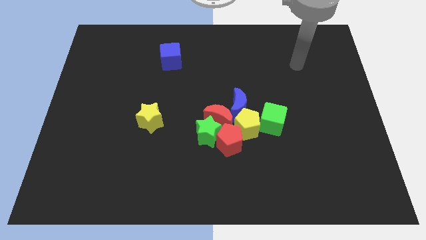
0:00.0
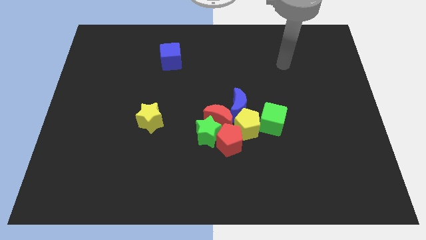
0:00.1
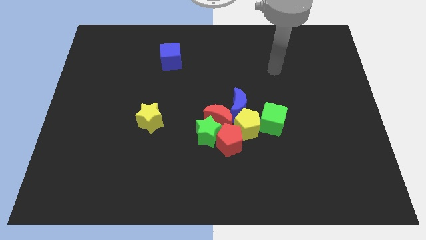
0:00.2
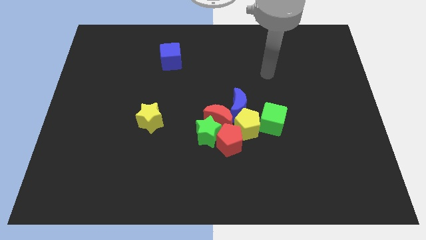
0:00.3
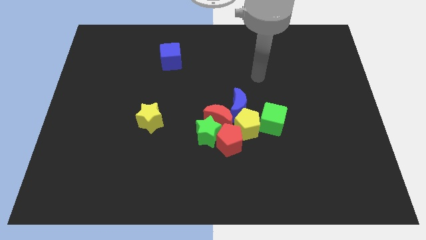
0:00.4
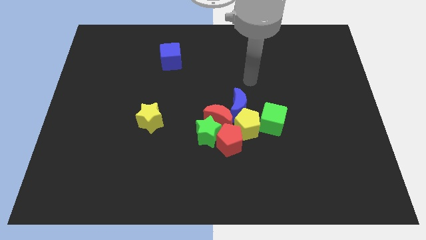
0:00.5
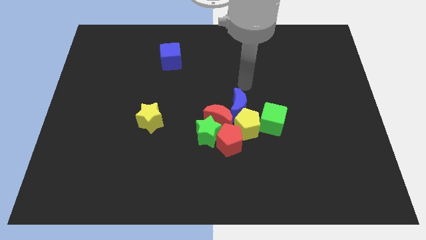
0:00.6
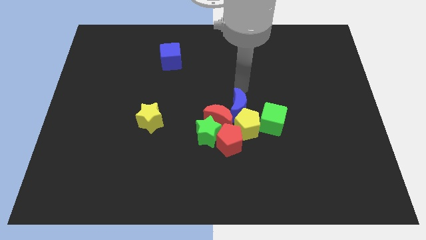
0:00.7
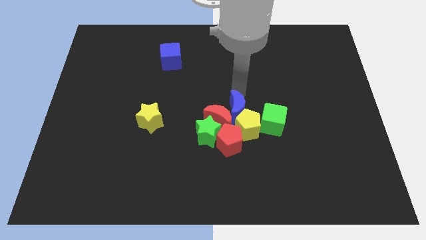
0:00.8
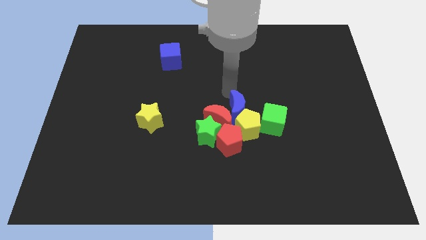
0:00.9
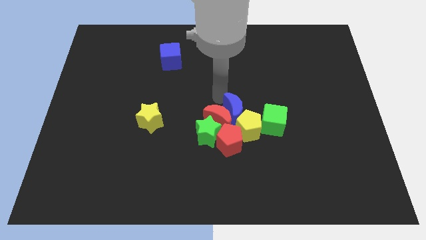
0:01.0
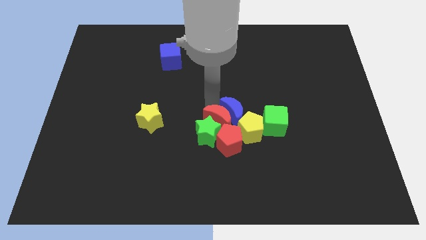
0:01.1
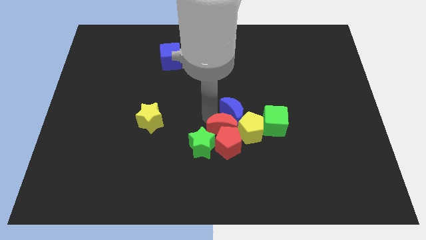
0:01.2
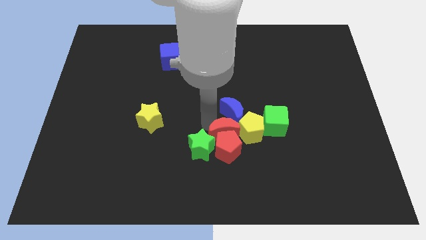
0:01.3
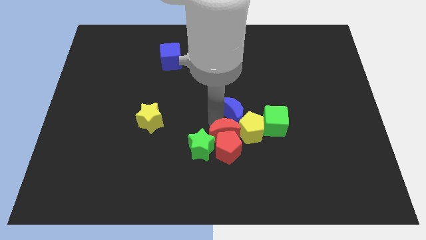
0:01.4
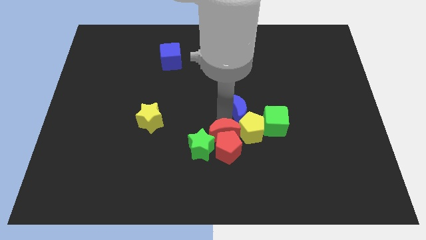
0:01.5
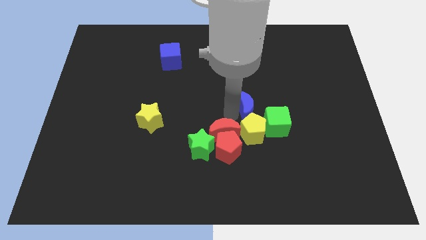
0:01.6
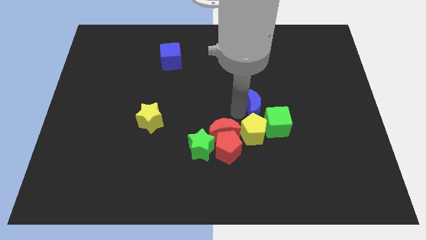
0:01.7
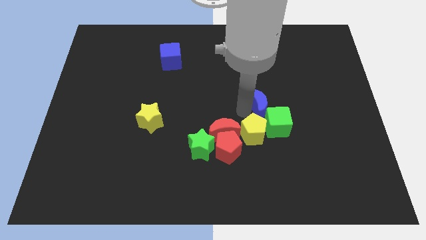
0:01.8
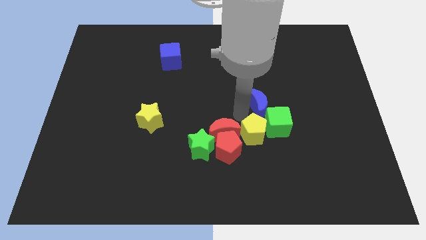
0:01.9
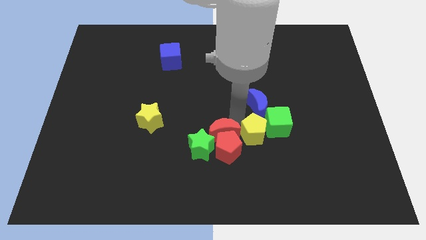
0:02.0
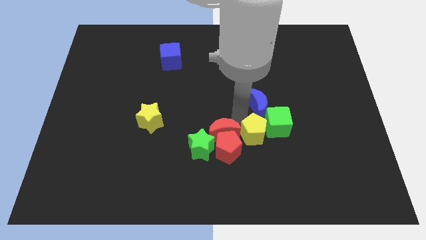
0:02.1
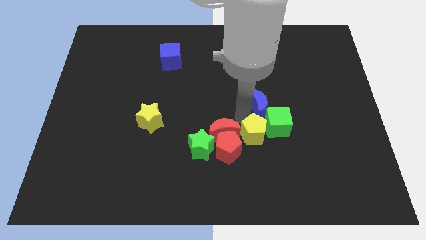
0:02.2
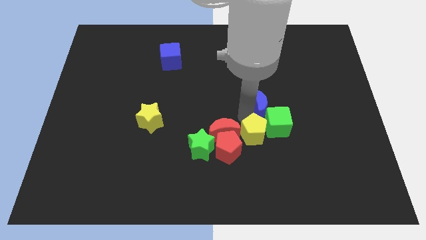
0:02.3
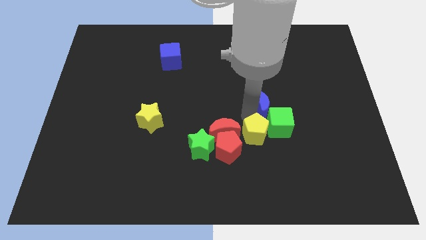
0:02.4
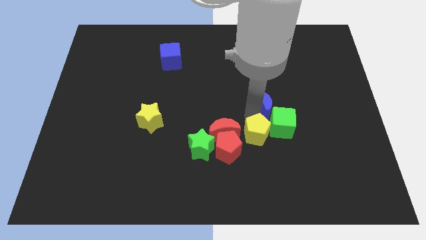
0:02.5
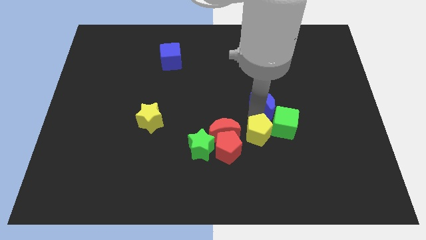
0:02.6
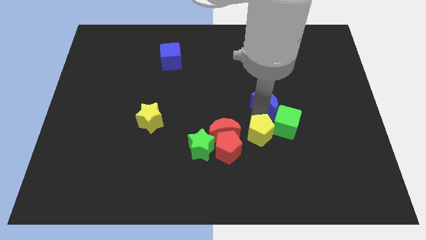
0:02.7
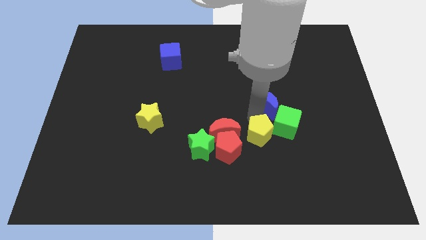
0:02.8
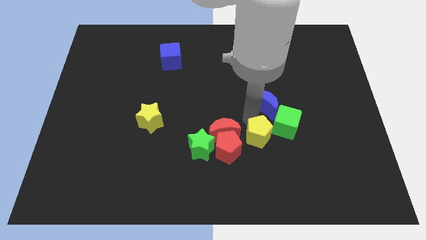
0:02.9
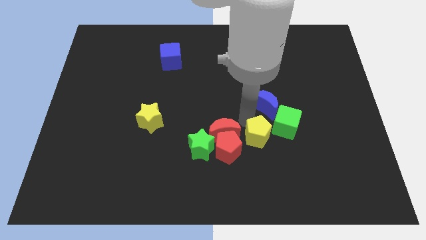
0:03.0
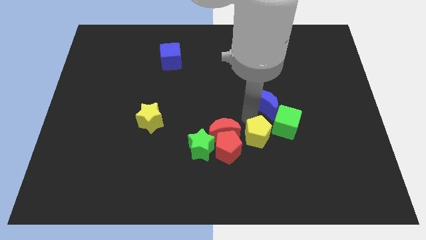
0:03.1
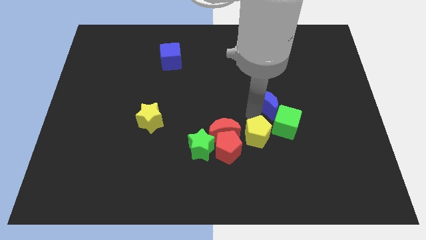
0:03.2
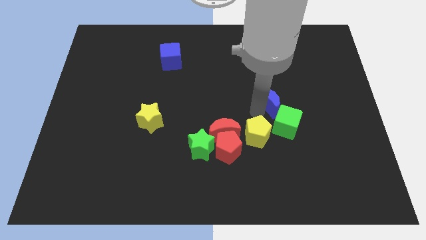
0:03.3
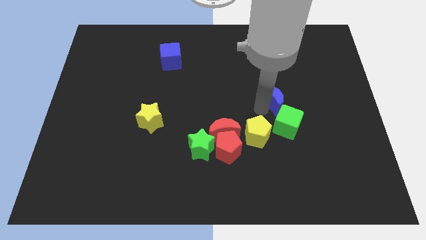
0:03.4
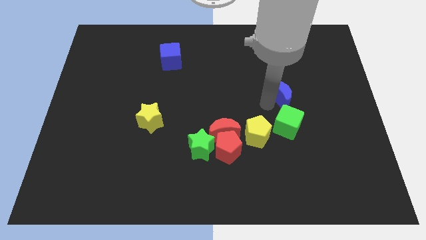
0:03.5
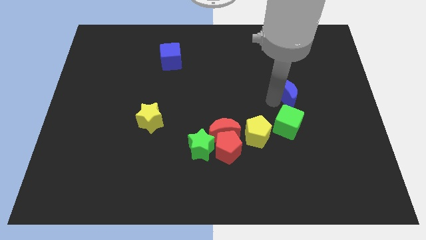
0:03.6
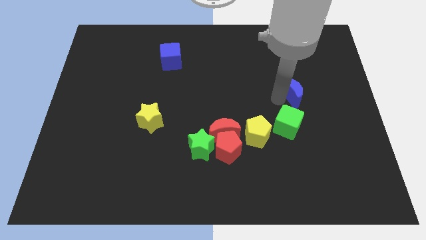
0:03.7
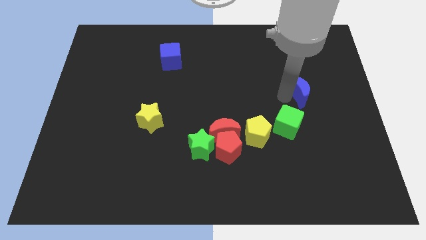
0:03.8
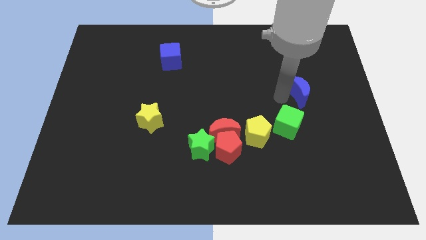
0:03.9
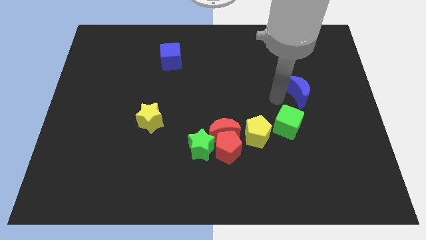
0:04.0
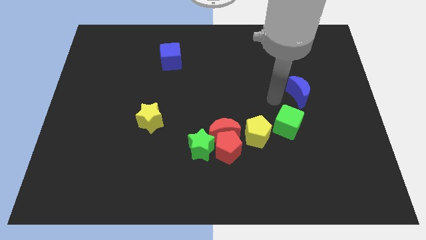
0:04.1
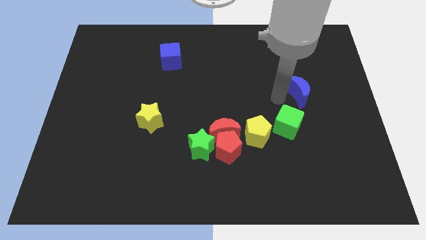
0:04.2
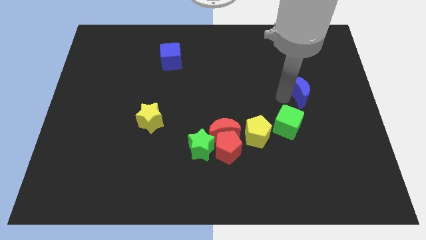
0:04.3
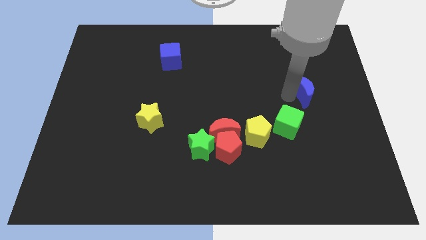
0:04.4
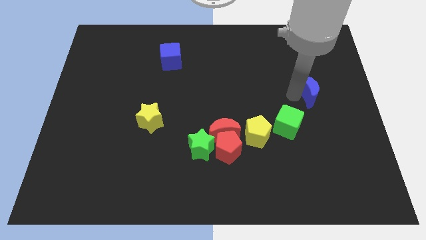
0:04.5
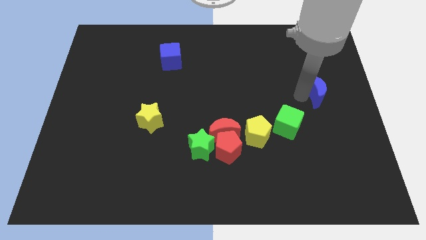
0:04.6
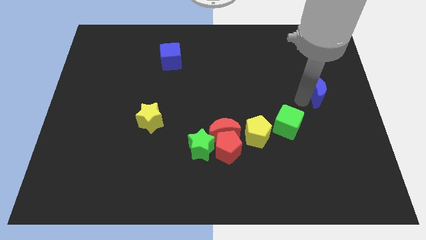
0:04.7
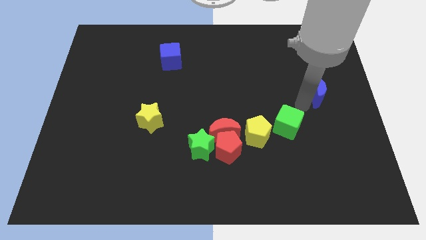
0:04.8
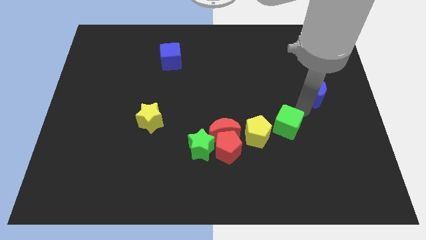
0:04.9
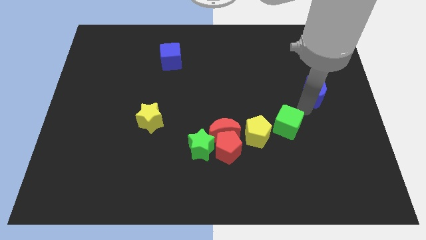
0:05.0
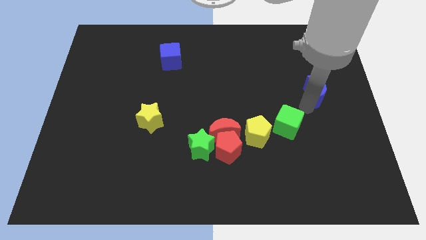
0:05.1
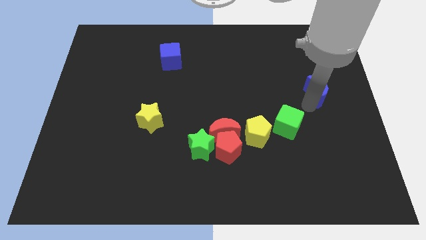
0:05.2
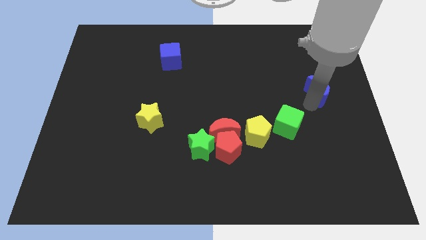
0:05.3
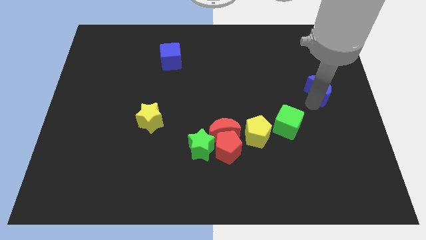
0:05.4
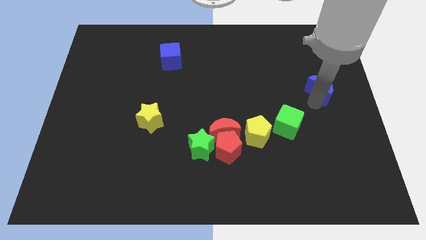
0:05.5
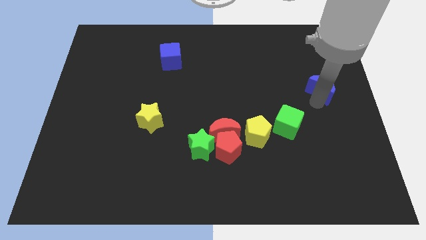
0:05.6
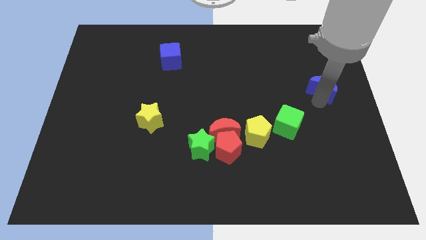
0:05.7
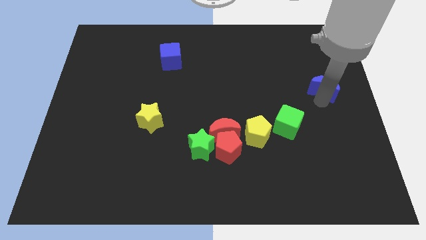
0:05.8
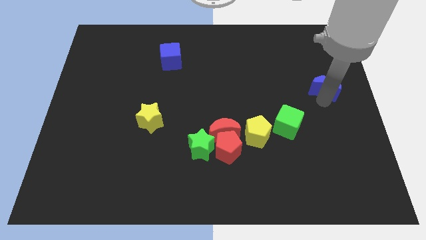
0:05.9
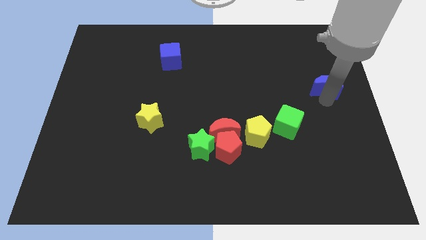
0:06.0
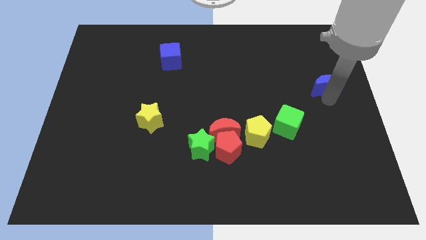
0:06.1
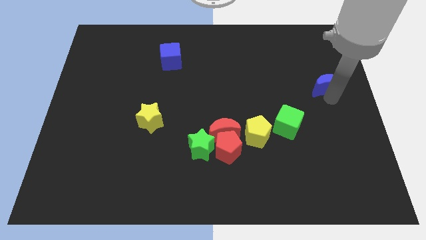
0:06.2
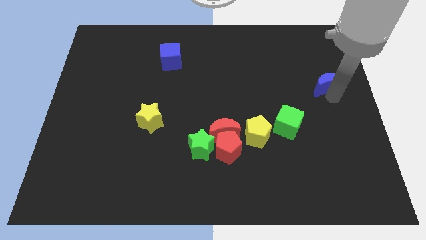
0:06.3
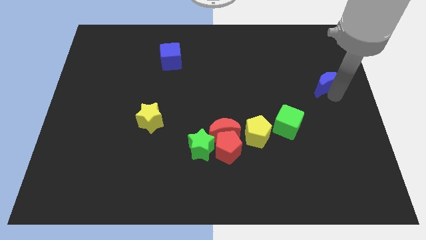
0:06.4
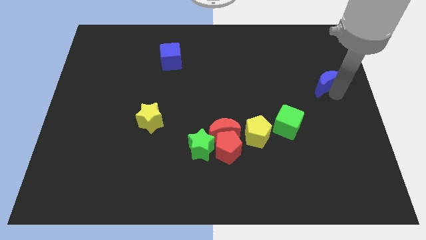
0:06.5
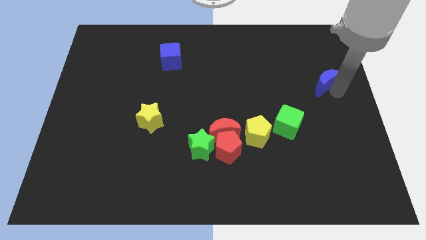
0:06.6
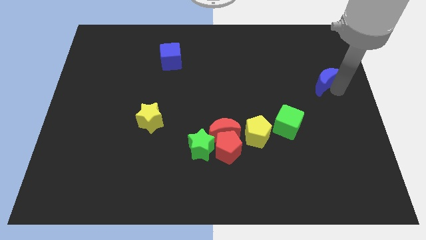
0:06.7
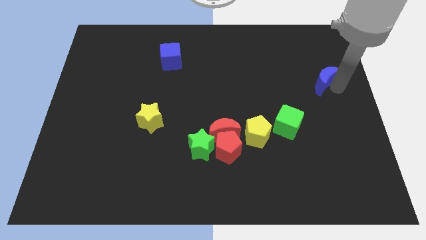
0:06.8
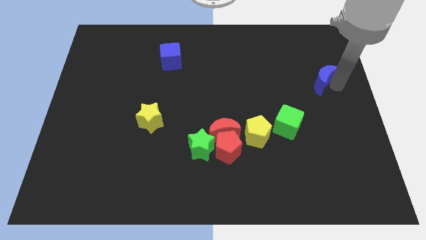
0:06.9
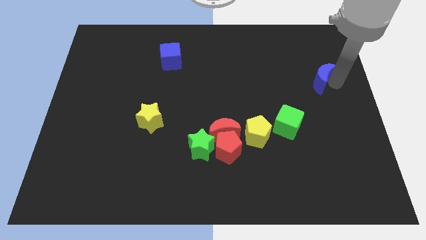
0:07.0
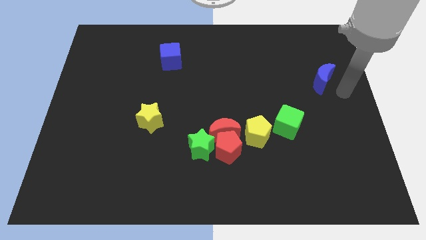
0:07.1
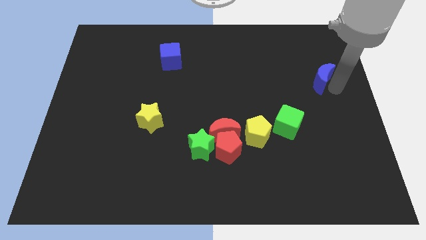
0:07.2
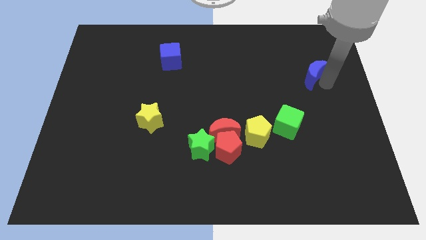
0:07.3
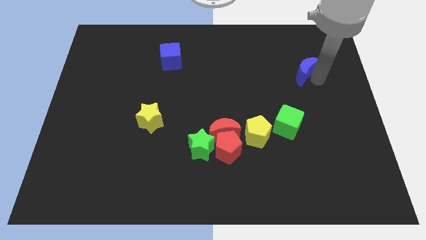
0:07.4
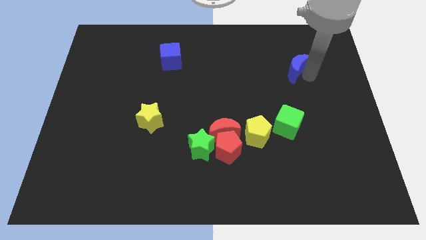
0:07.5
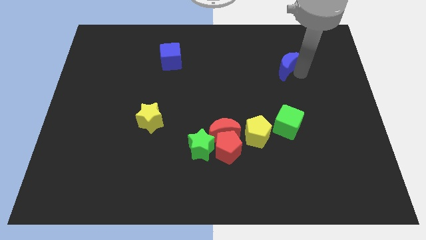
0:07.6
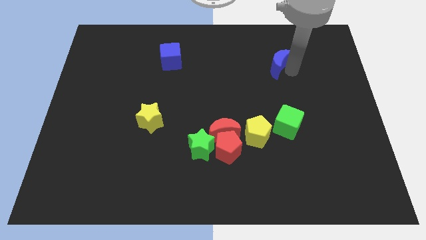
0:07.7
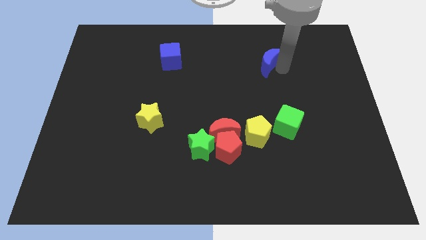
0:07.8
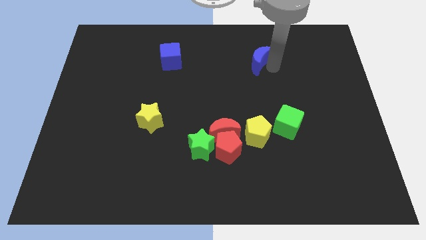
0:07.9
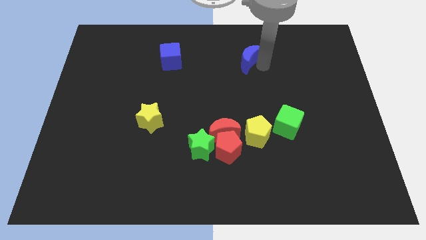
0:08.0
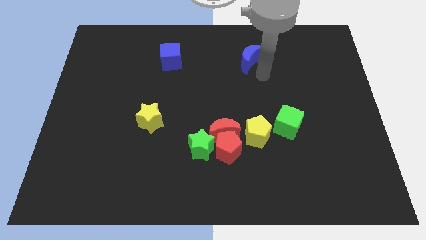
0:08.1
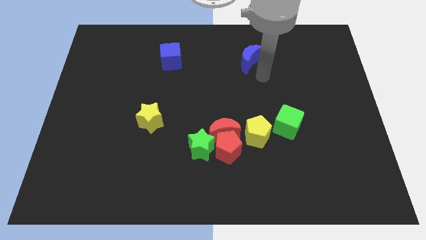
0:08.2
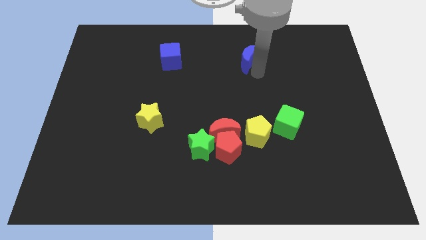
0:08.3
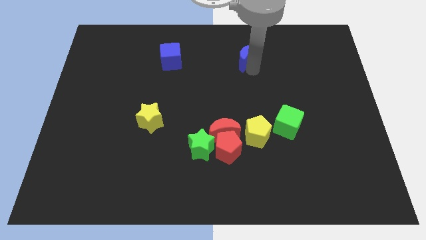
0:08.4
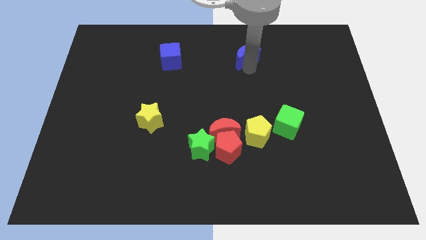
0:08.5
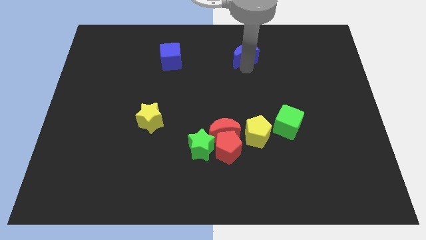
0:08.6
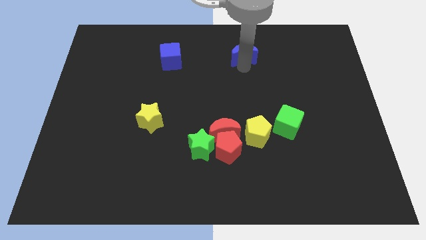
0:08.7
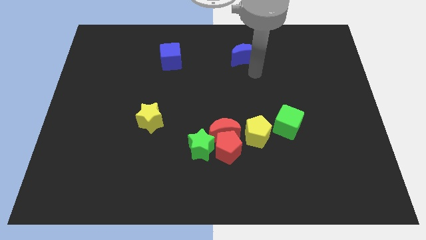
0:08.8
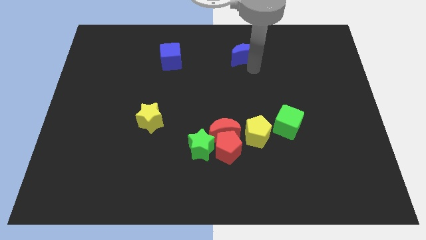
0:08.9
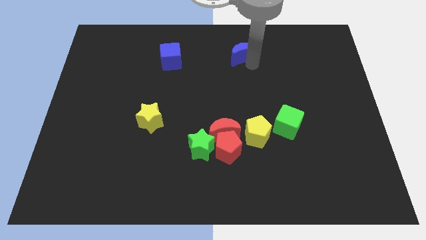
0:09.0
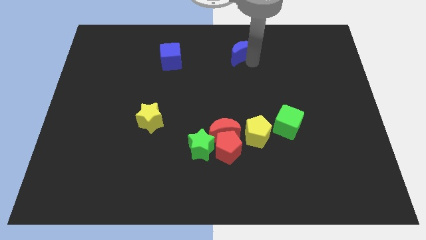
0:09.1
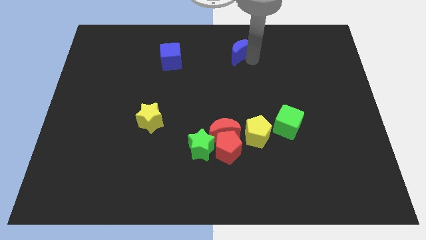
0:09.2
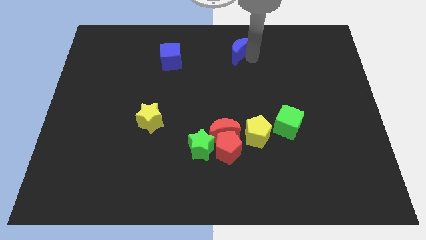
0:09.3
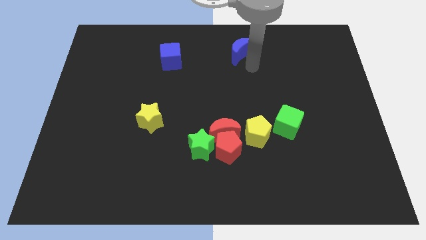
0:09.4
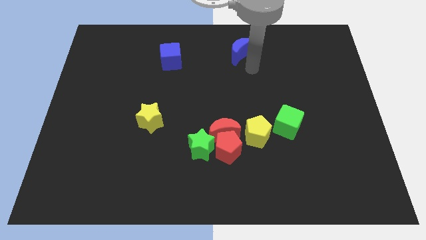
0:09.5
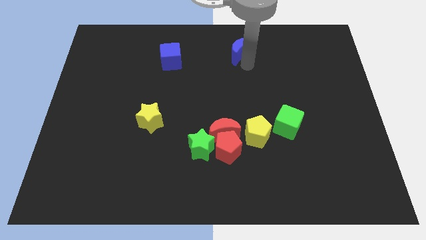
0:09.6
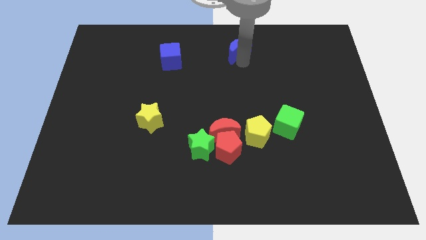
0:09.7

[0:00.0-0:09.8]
put the blue moon to the top side
